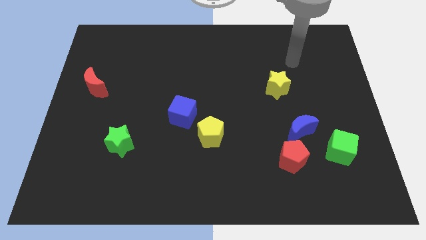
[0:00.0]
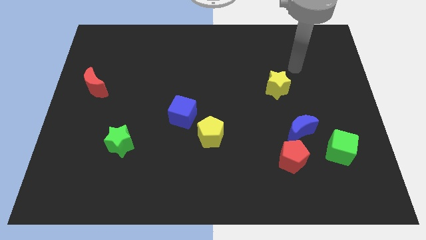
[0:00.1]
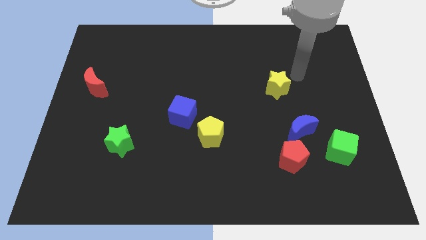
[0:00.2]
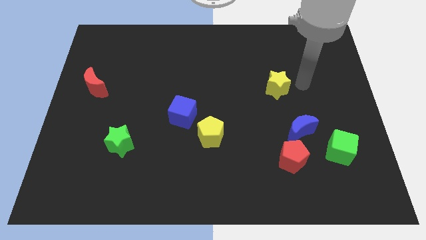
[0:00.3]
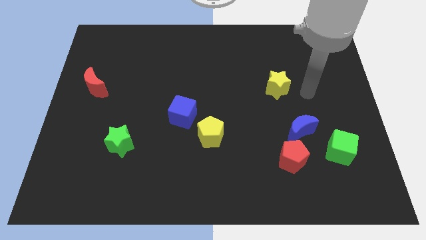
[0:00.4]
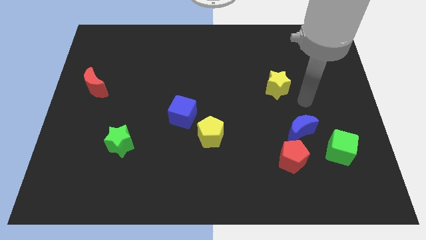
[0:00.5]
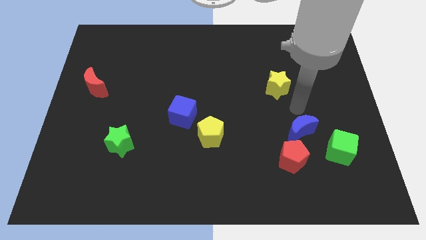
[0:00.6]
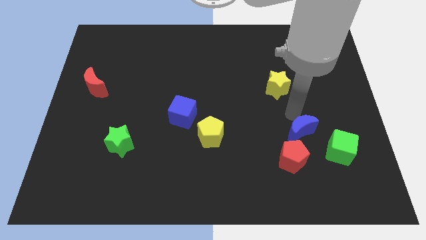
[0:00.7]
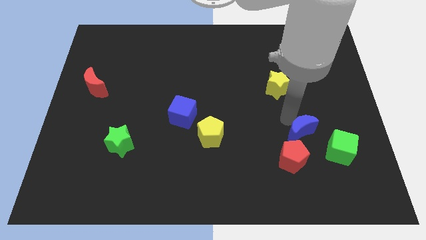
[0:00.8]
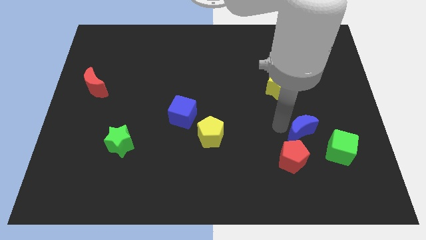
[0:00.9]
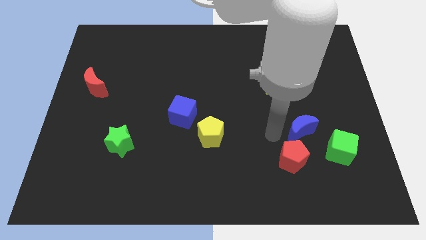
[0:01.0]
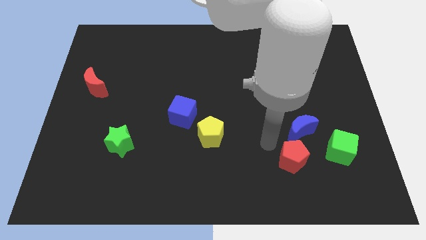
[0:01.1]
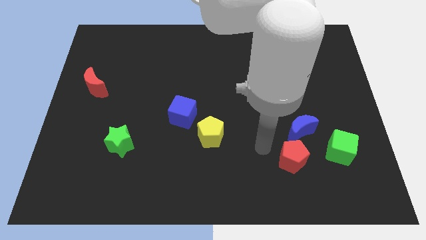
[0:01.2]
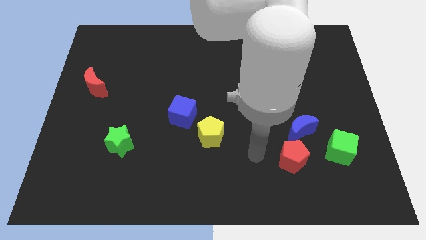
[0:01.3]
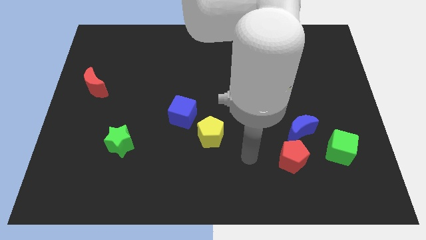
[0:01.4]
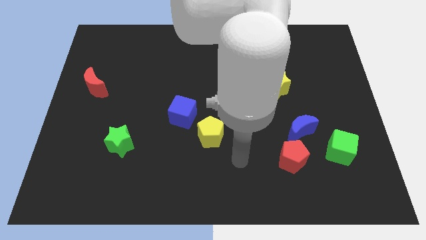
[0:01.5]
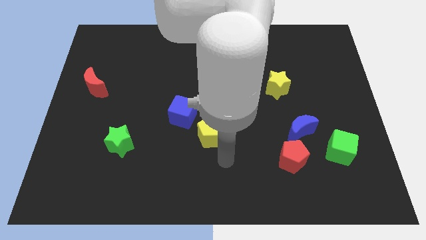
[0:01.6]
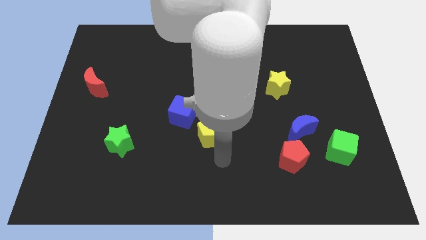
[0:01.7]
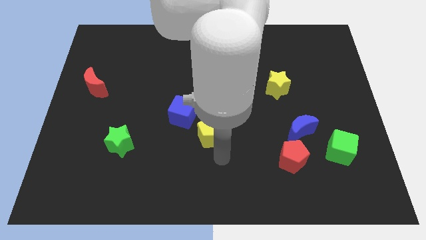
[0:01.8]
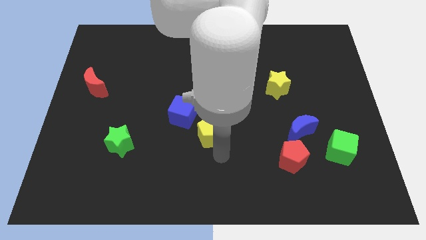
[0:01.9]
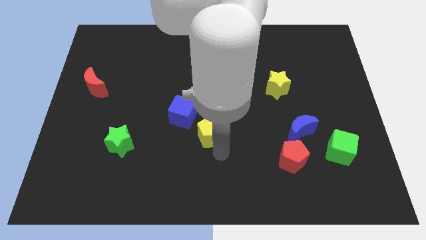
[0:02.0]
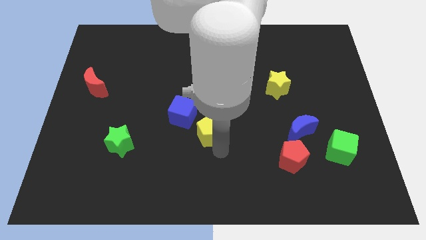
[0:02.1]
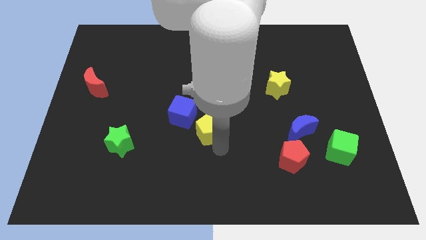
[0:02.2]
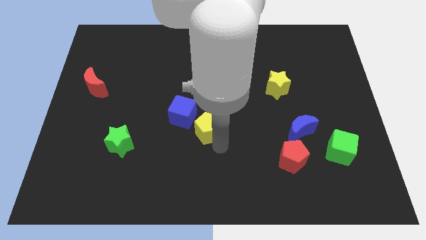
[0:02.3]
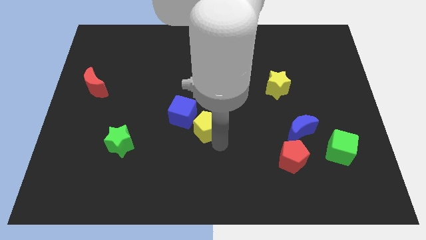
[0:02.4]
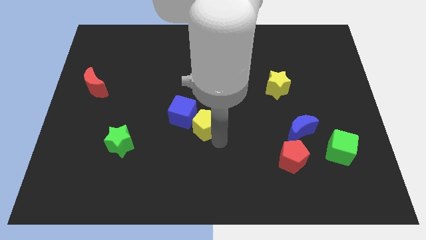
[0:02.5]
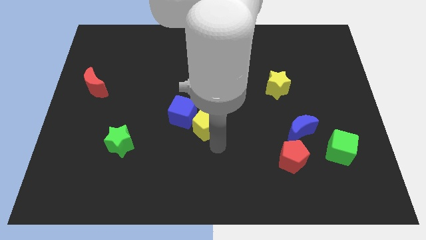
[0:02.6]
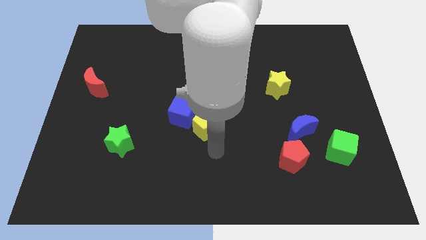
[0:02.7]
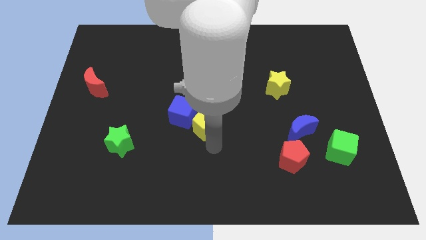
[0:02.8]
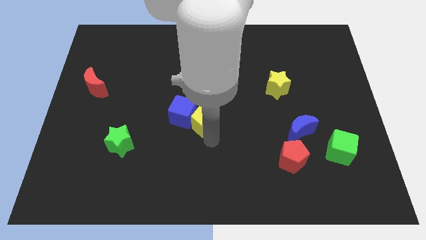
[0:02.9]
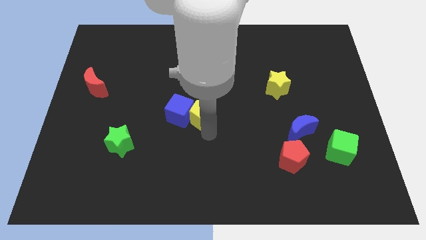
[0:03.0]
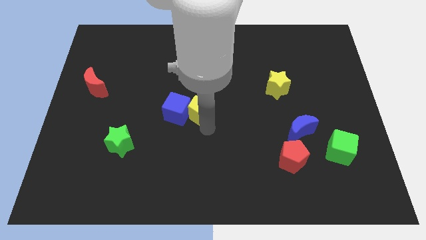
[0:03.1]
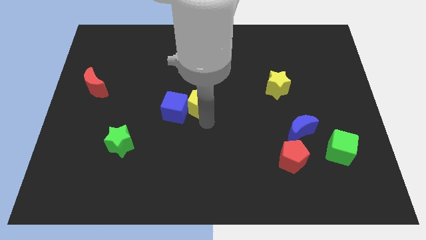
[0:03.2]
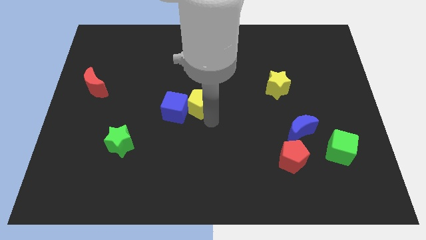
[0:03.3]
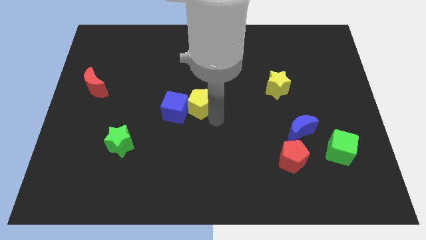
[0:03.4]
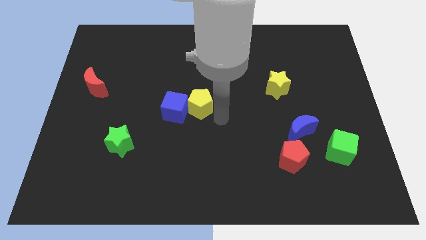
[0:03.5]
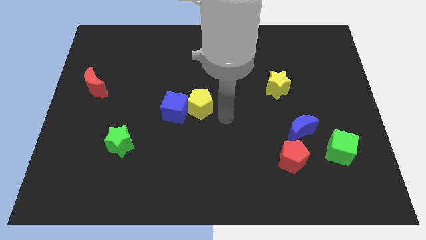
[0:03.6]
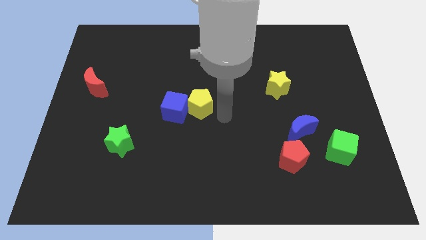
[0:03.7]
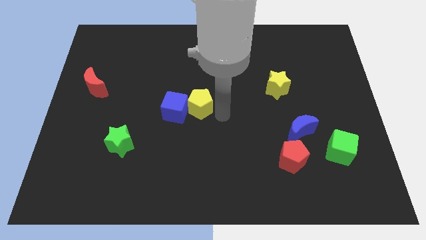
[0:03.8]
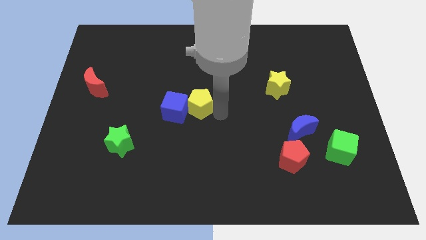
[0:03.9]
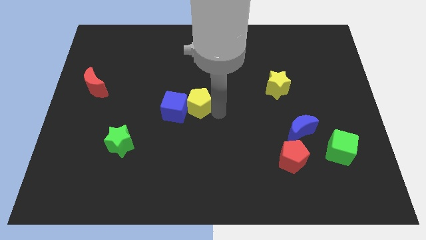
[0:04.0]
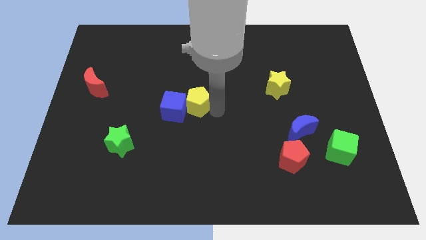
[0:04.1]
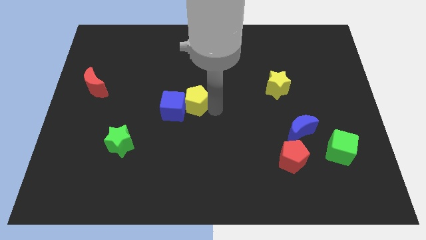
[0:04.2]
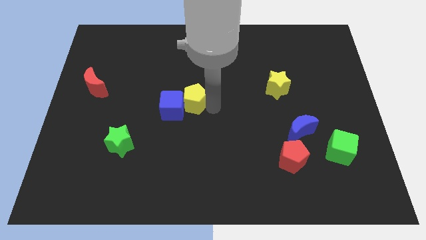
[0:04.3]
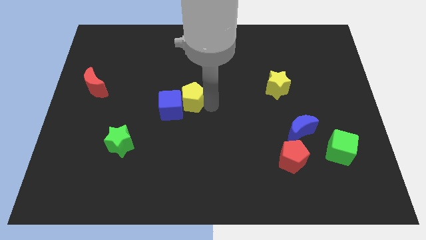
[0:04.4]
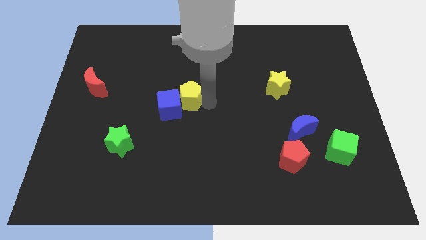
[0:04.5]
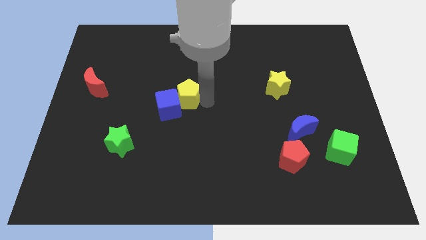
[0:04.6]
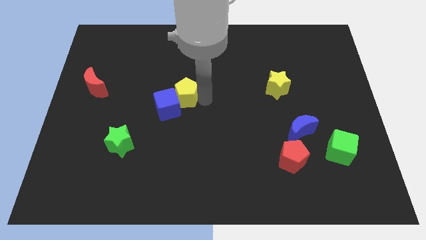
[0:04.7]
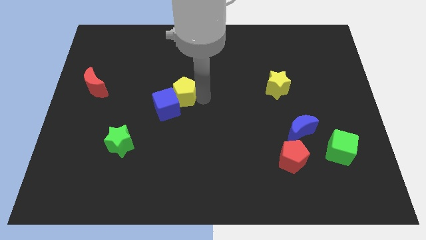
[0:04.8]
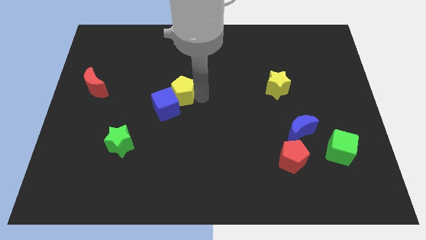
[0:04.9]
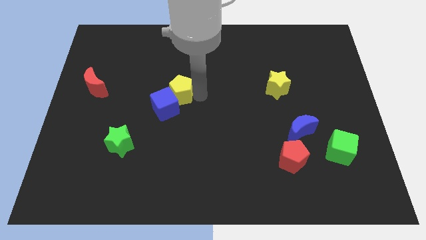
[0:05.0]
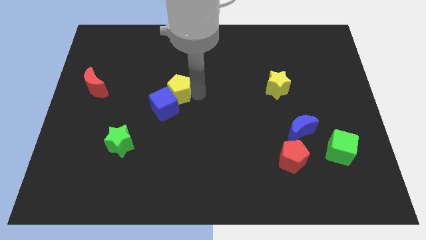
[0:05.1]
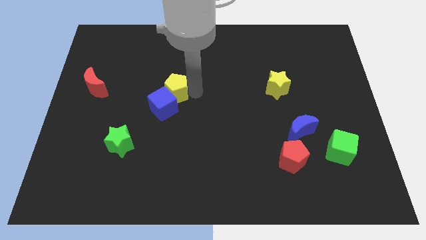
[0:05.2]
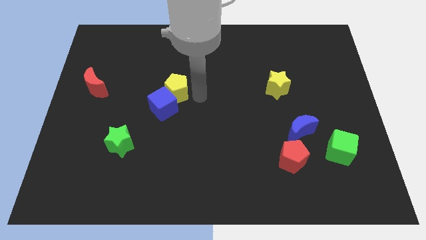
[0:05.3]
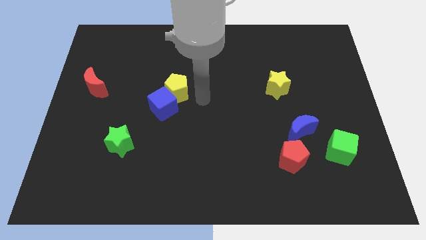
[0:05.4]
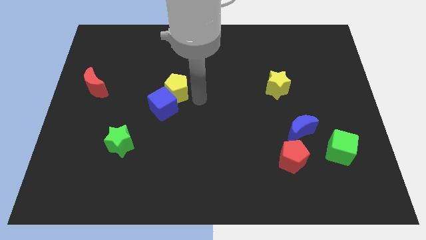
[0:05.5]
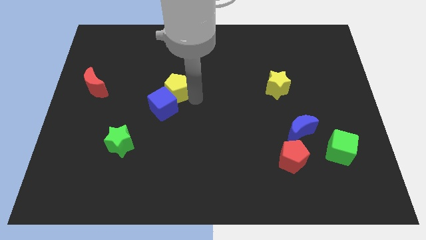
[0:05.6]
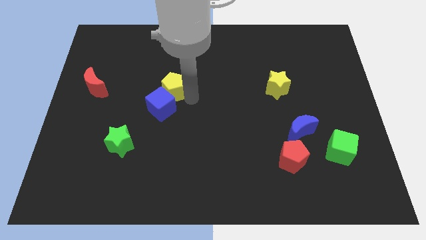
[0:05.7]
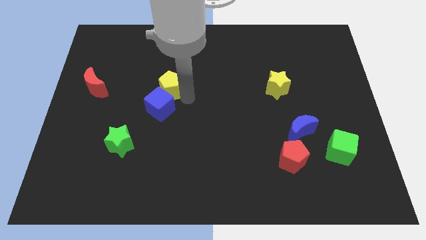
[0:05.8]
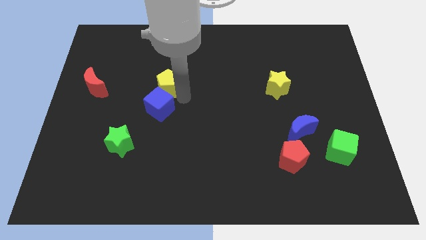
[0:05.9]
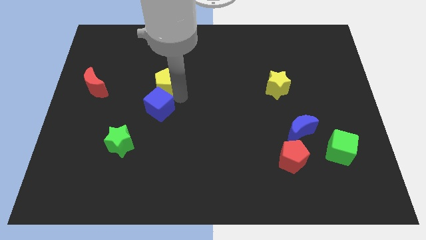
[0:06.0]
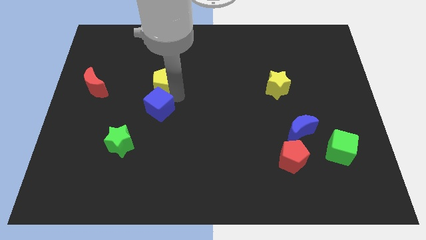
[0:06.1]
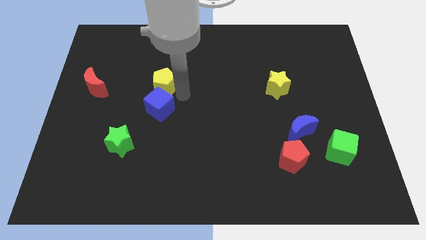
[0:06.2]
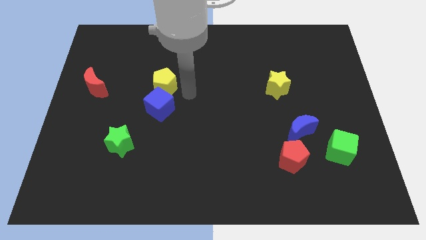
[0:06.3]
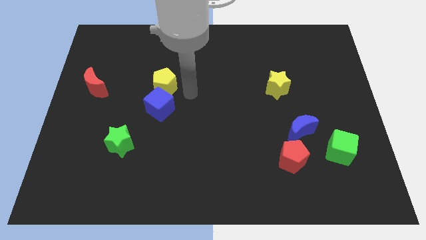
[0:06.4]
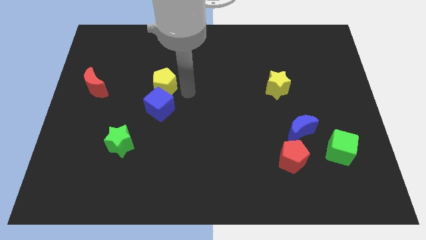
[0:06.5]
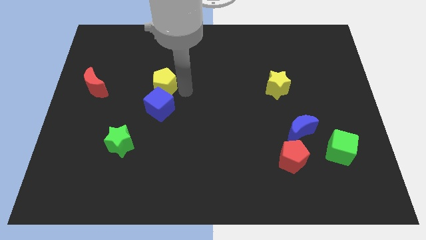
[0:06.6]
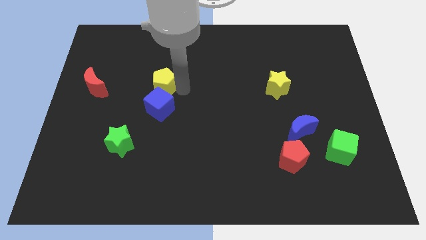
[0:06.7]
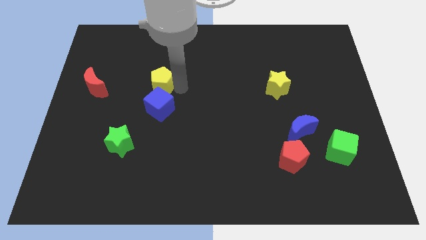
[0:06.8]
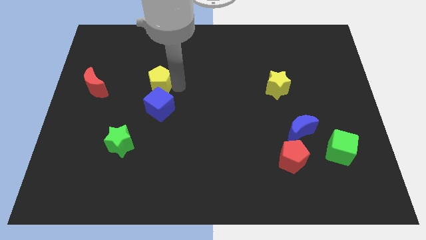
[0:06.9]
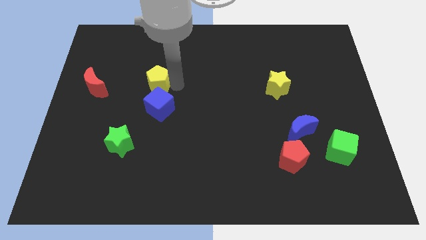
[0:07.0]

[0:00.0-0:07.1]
move the yellow pentagon upwards and to the left diagonally

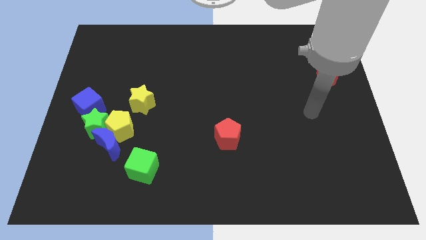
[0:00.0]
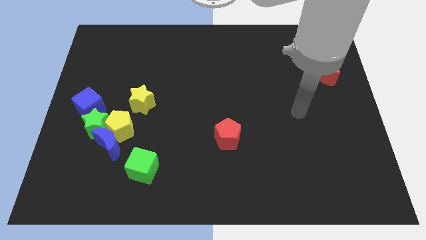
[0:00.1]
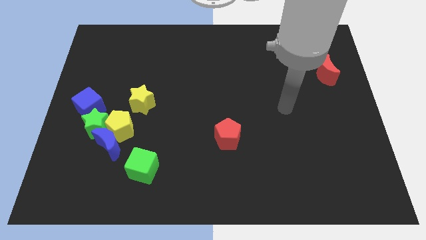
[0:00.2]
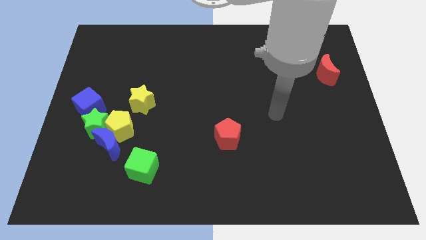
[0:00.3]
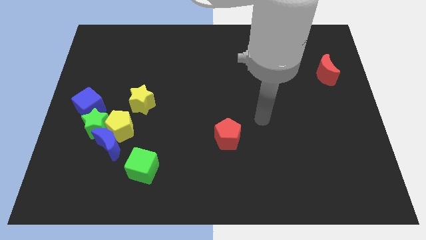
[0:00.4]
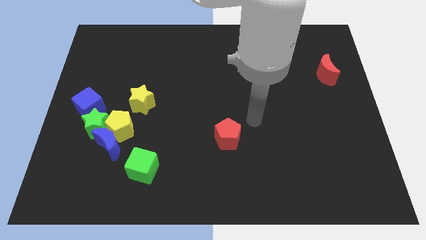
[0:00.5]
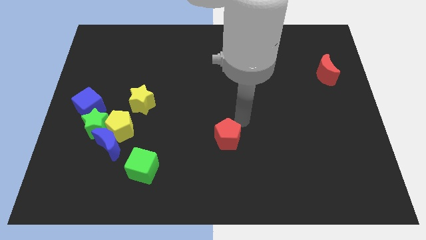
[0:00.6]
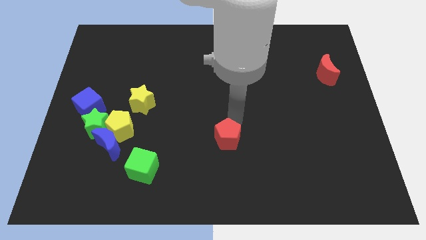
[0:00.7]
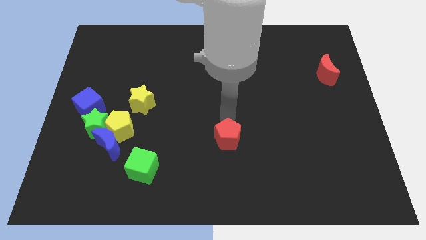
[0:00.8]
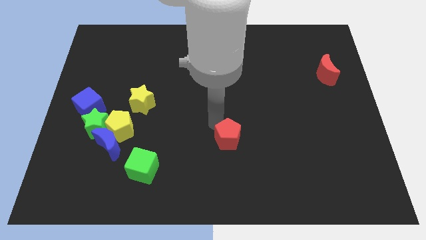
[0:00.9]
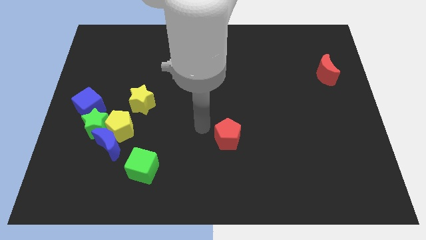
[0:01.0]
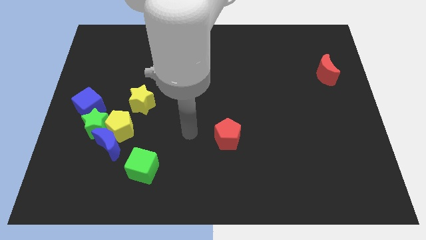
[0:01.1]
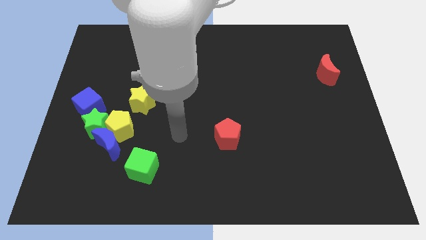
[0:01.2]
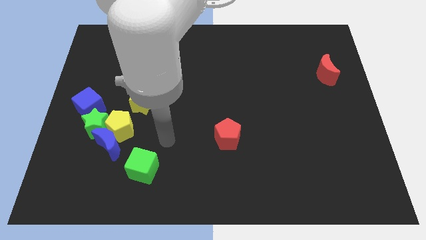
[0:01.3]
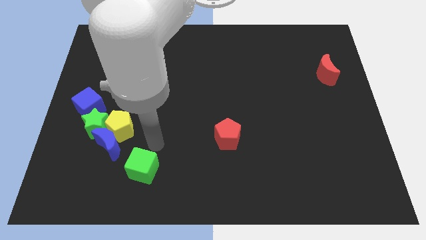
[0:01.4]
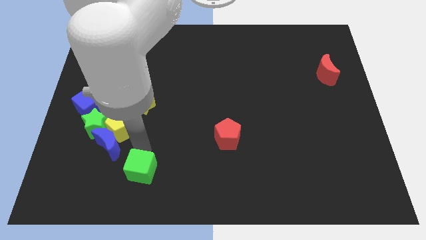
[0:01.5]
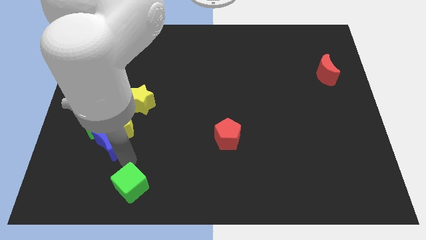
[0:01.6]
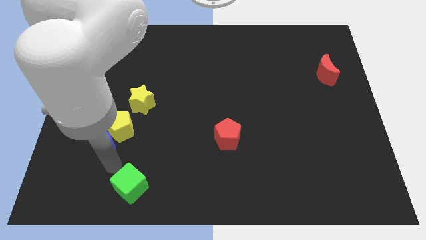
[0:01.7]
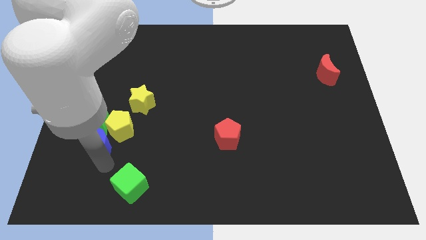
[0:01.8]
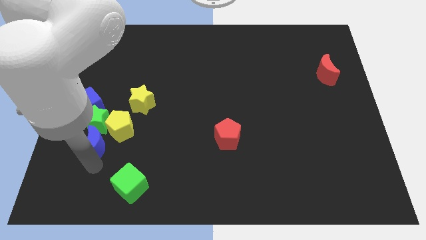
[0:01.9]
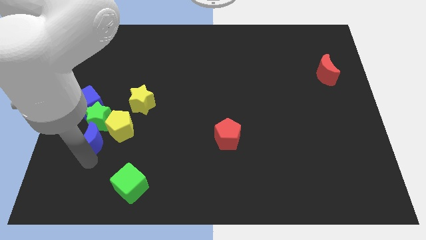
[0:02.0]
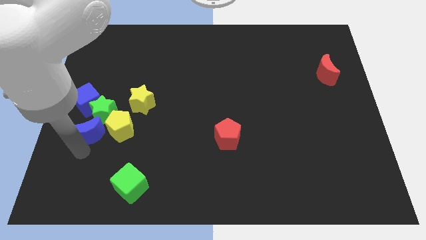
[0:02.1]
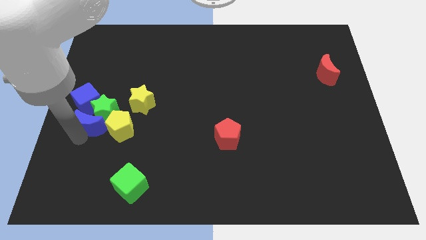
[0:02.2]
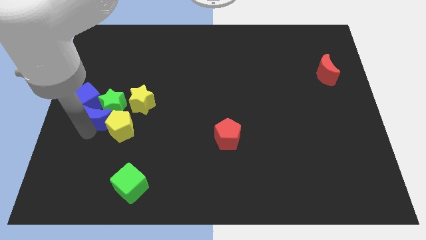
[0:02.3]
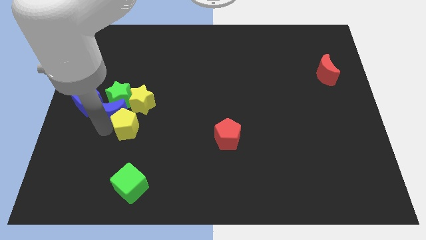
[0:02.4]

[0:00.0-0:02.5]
push the green star upwards slightly
